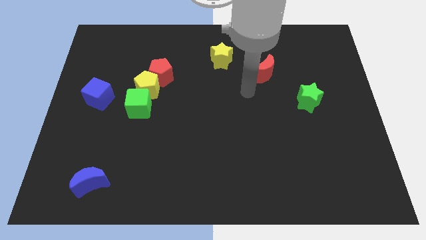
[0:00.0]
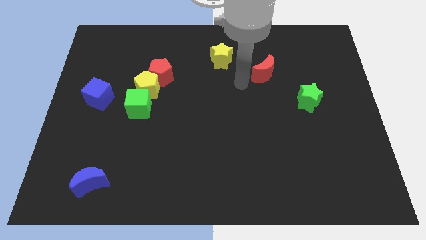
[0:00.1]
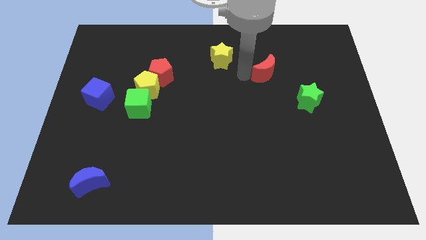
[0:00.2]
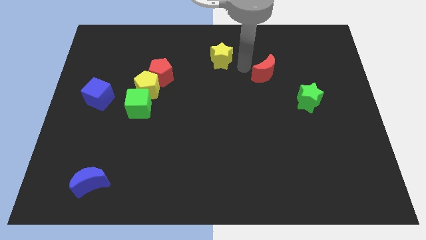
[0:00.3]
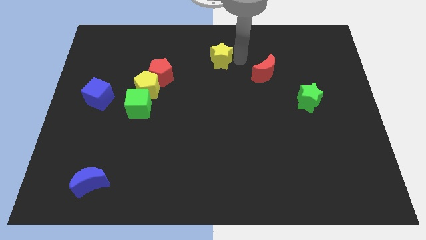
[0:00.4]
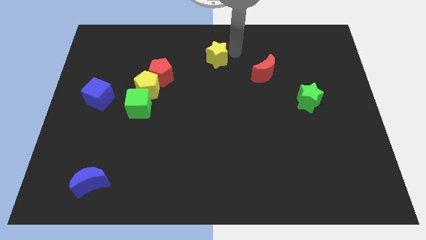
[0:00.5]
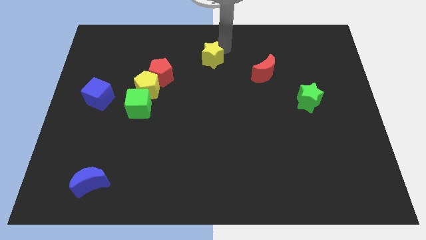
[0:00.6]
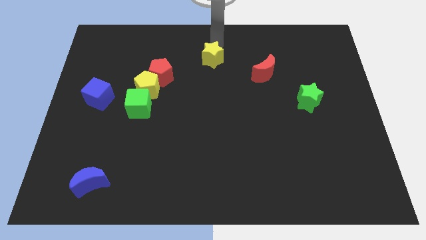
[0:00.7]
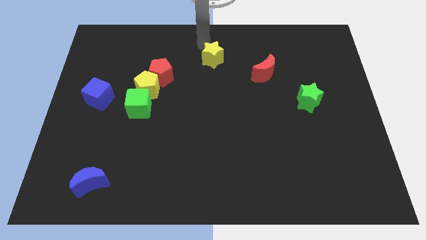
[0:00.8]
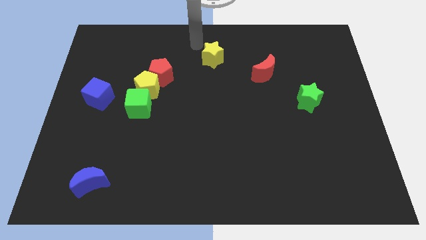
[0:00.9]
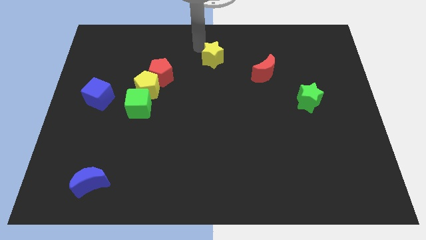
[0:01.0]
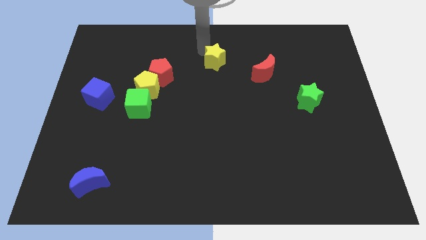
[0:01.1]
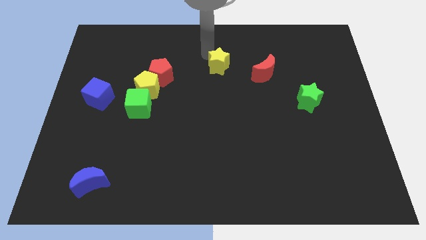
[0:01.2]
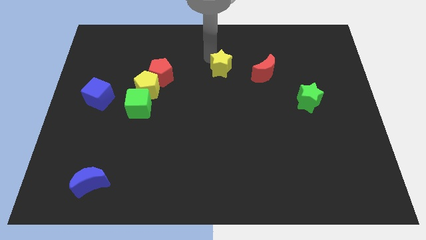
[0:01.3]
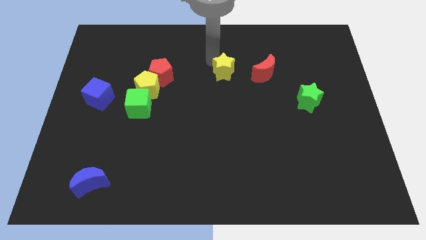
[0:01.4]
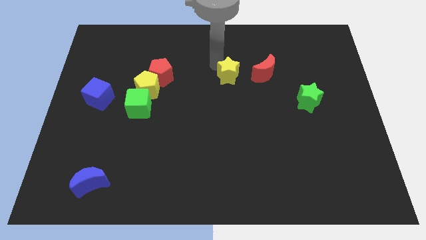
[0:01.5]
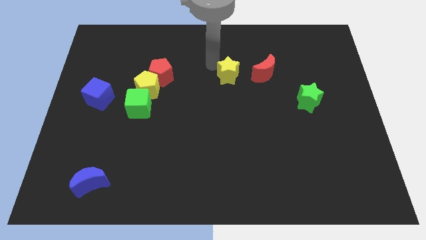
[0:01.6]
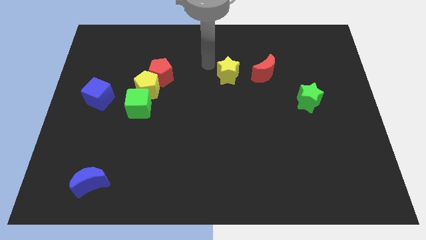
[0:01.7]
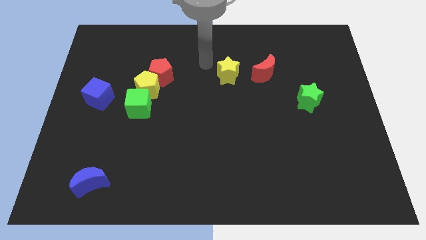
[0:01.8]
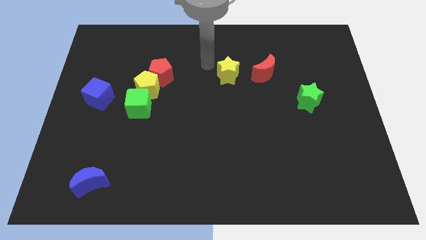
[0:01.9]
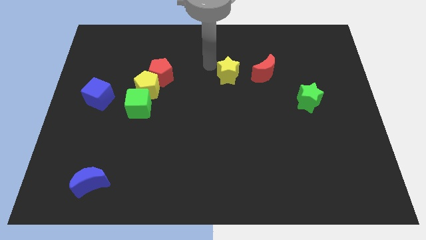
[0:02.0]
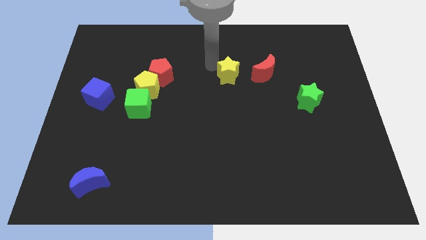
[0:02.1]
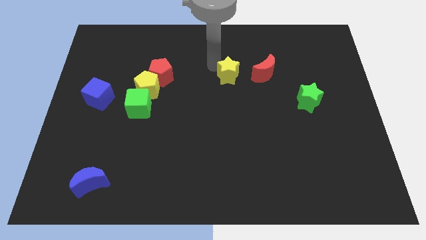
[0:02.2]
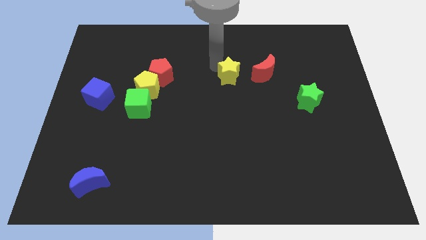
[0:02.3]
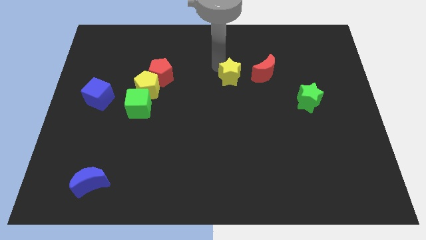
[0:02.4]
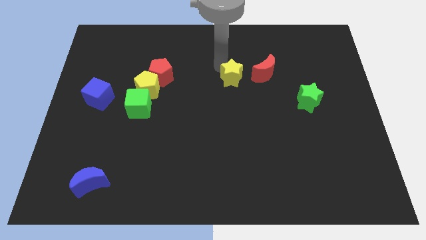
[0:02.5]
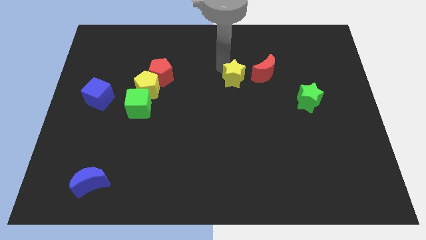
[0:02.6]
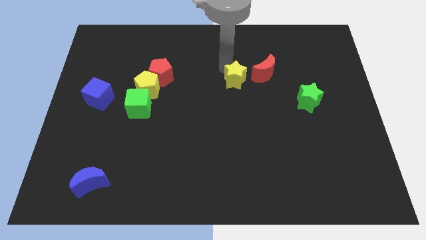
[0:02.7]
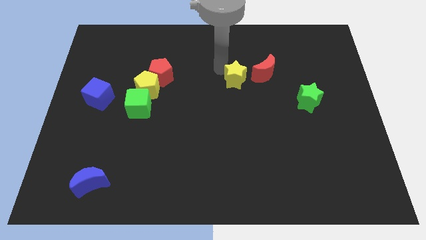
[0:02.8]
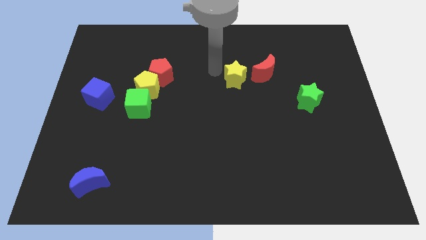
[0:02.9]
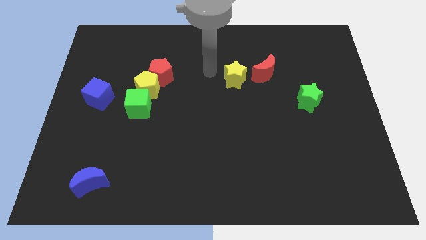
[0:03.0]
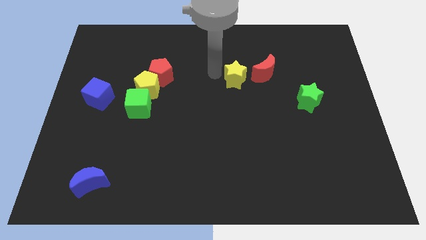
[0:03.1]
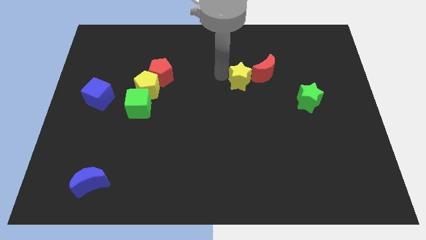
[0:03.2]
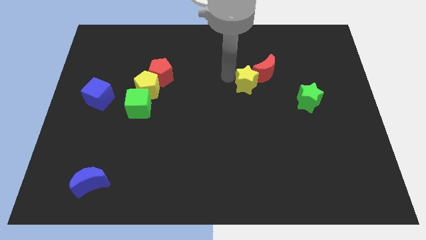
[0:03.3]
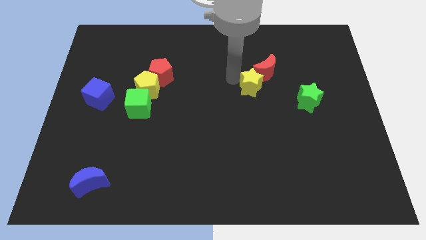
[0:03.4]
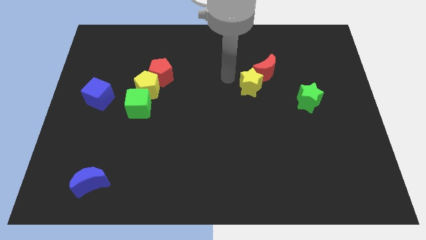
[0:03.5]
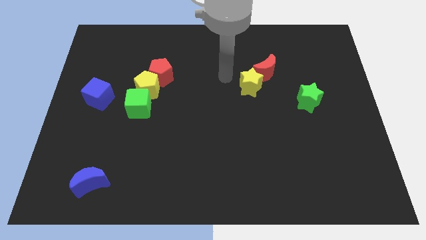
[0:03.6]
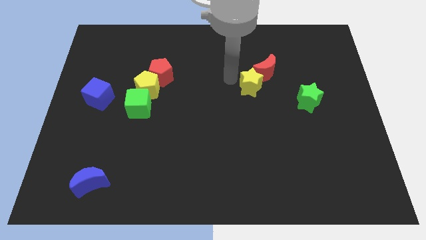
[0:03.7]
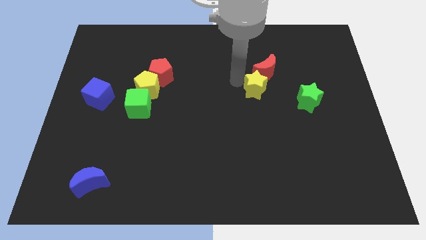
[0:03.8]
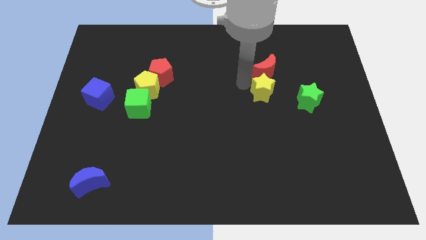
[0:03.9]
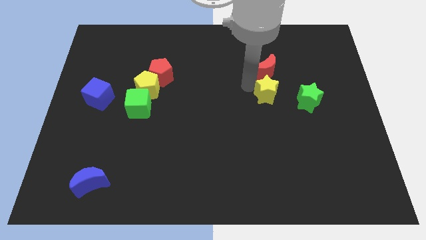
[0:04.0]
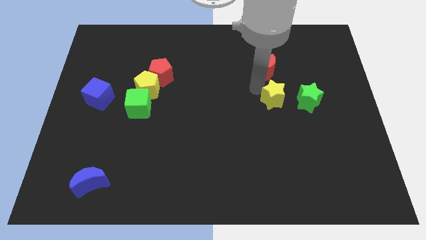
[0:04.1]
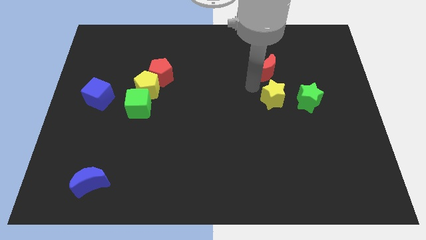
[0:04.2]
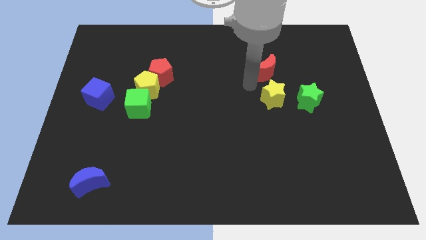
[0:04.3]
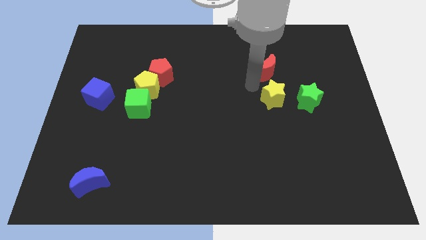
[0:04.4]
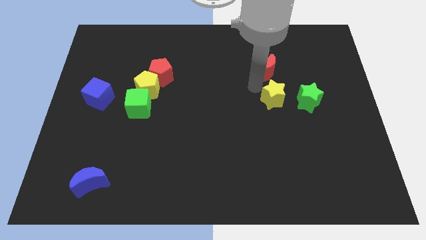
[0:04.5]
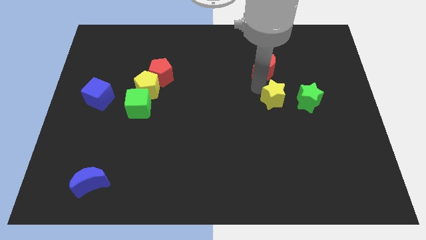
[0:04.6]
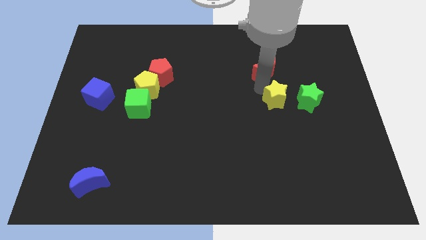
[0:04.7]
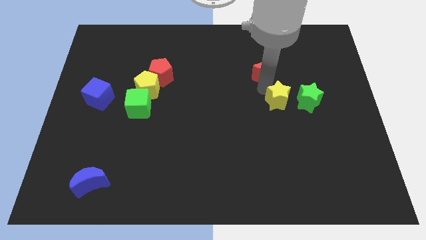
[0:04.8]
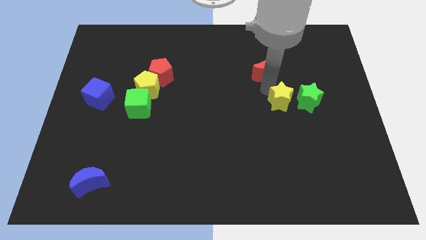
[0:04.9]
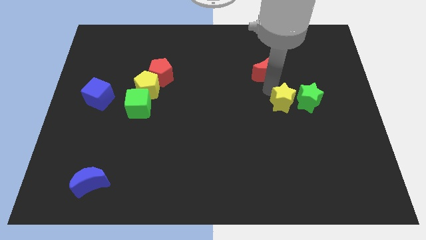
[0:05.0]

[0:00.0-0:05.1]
move the yellow star downwards and to the right

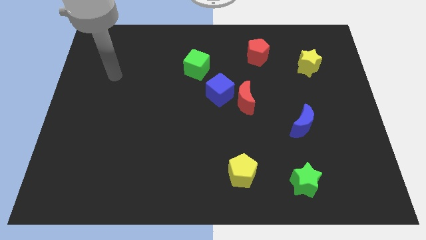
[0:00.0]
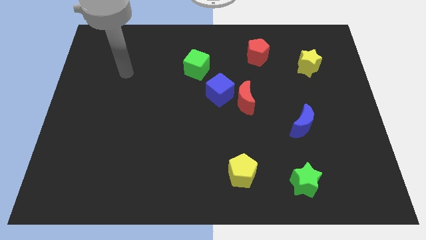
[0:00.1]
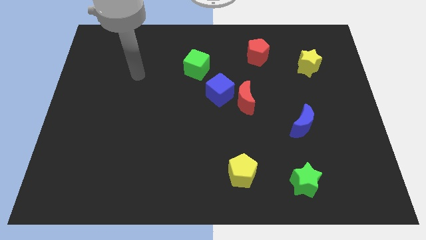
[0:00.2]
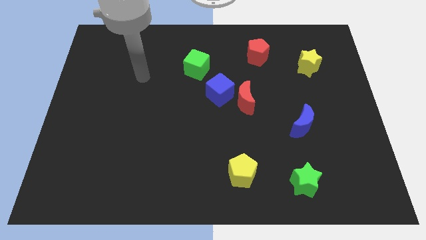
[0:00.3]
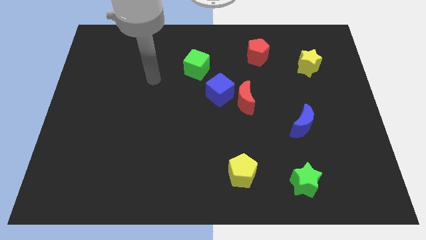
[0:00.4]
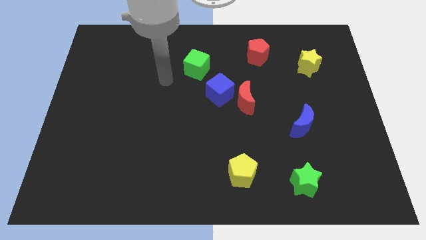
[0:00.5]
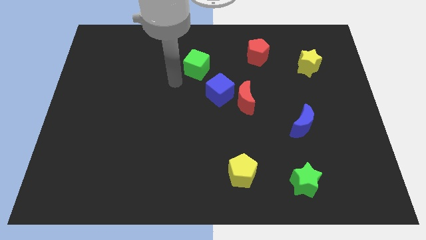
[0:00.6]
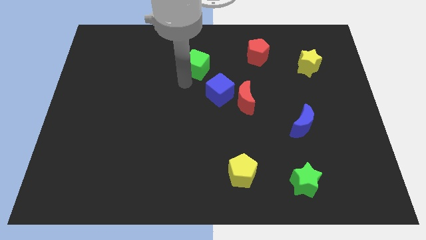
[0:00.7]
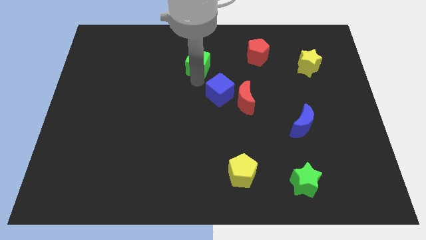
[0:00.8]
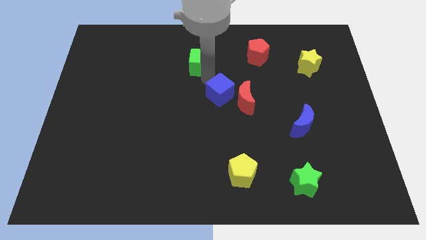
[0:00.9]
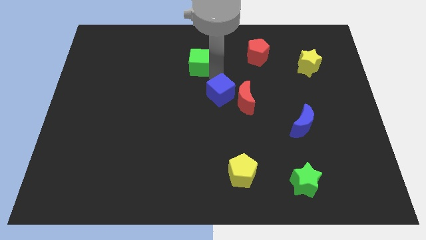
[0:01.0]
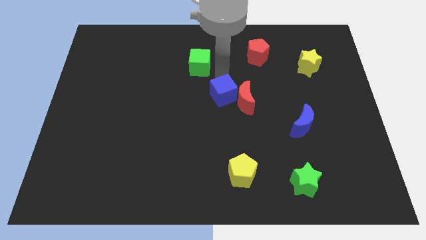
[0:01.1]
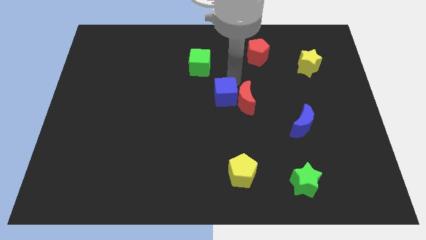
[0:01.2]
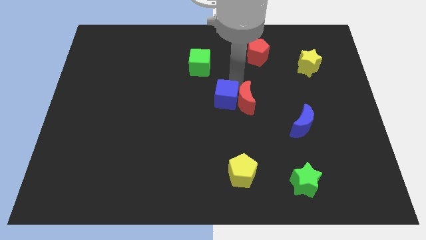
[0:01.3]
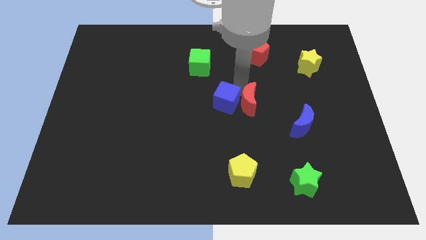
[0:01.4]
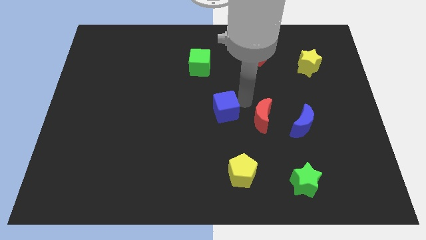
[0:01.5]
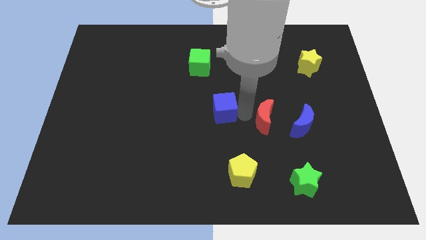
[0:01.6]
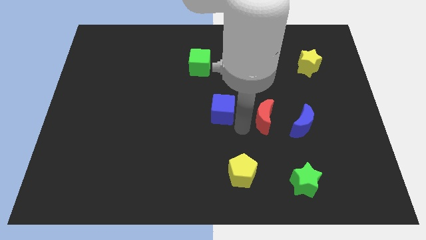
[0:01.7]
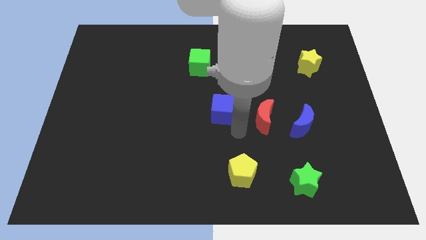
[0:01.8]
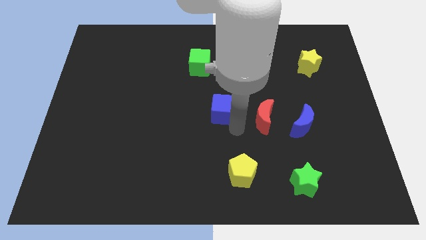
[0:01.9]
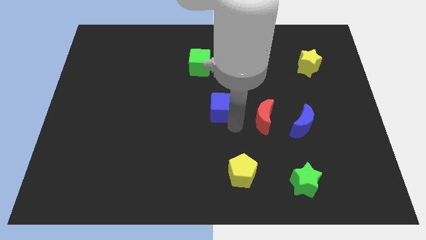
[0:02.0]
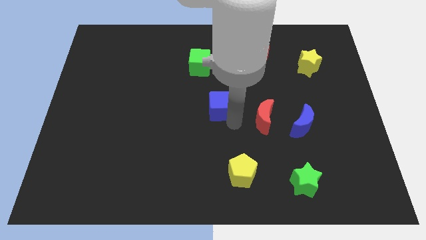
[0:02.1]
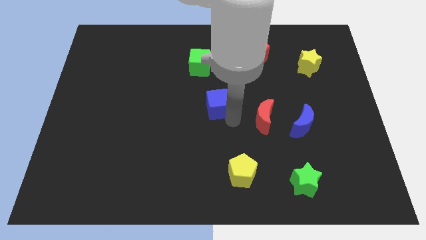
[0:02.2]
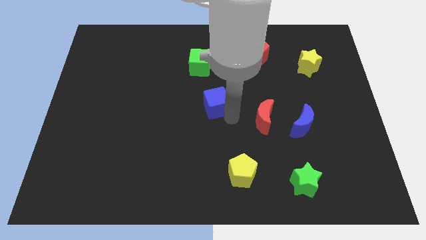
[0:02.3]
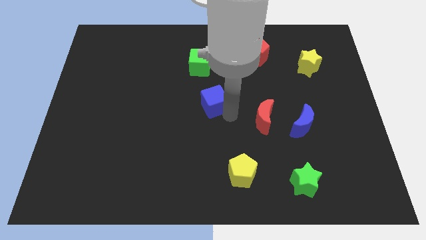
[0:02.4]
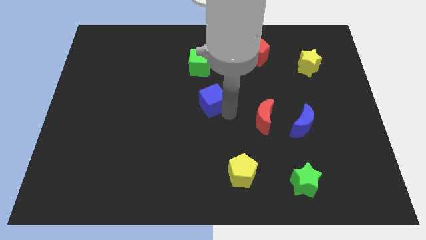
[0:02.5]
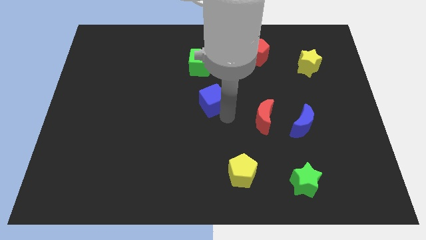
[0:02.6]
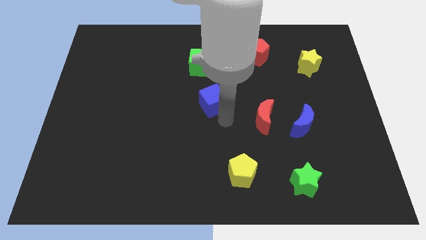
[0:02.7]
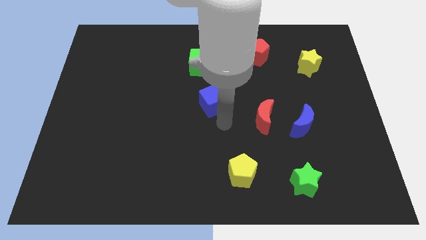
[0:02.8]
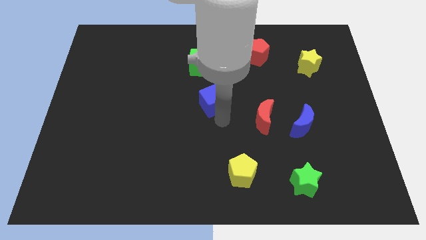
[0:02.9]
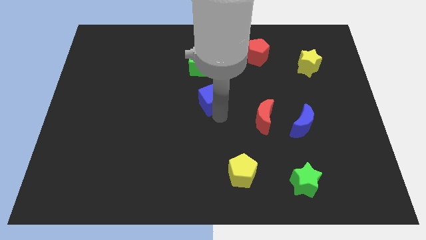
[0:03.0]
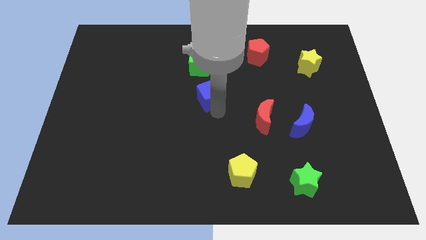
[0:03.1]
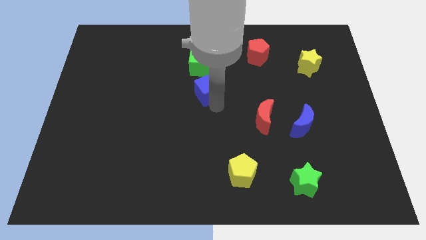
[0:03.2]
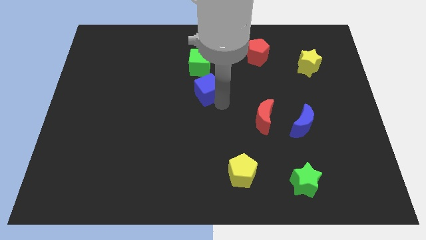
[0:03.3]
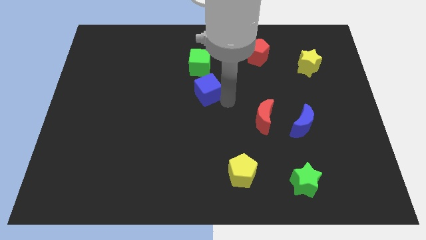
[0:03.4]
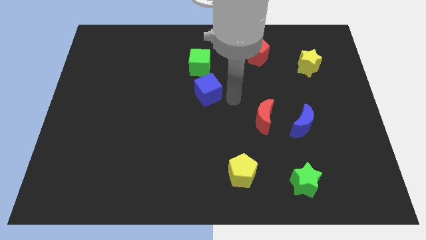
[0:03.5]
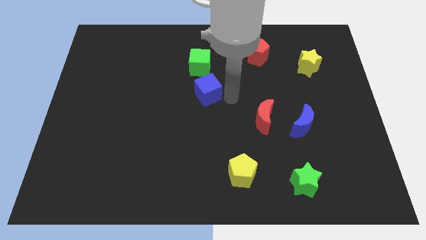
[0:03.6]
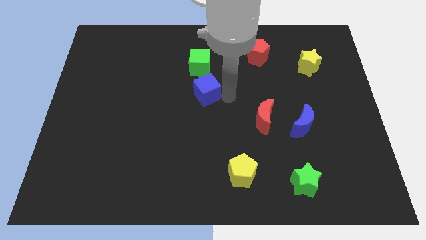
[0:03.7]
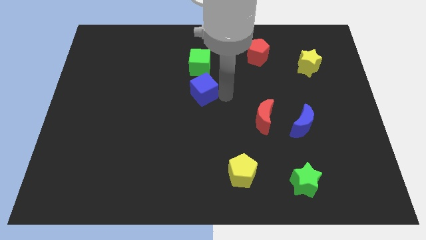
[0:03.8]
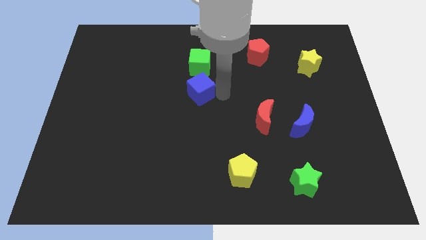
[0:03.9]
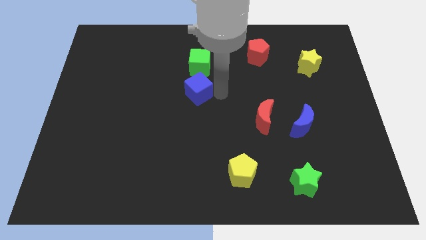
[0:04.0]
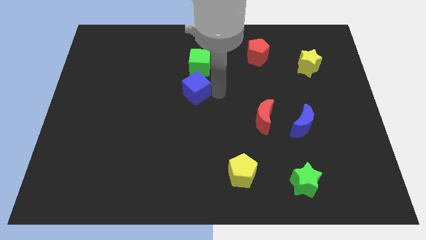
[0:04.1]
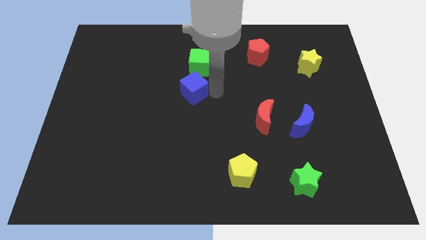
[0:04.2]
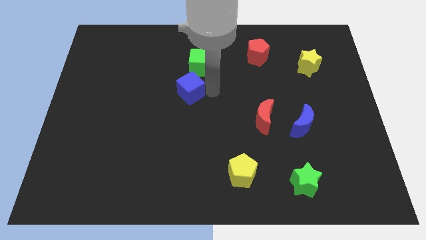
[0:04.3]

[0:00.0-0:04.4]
slide the blue cube to the left a little bit
